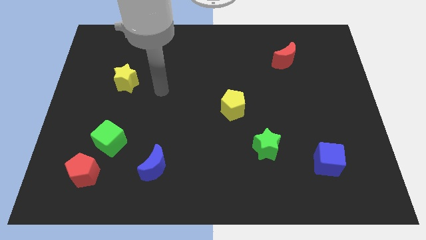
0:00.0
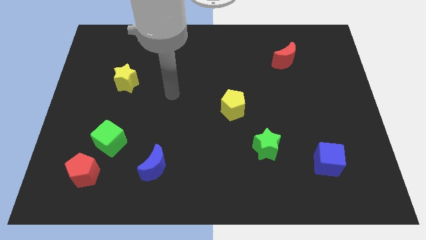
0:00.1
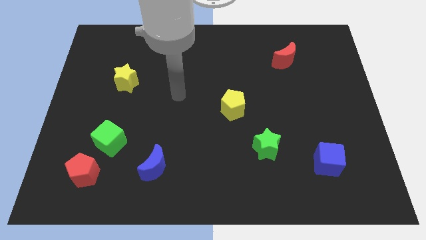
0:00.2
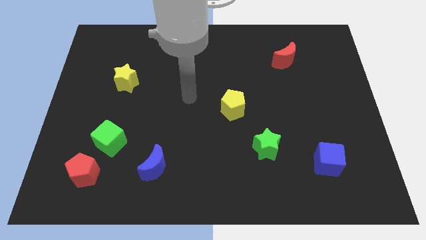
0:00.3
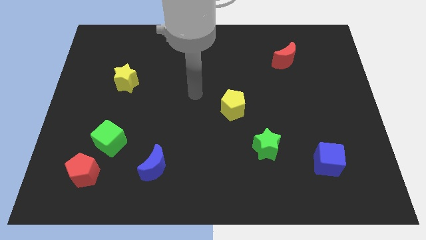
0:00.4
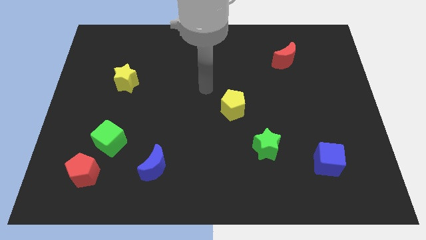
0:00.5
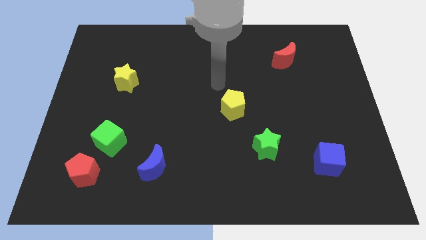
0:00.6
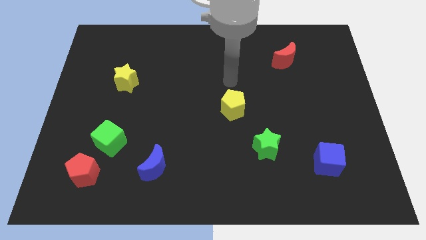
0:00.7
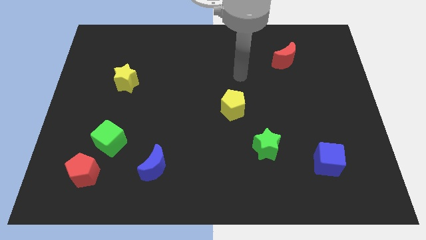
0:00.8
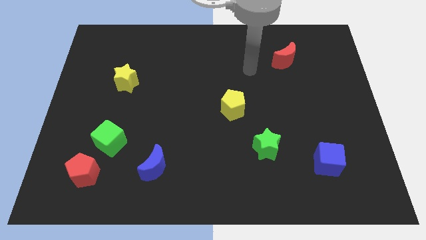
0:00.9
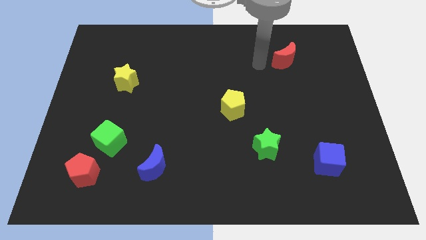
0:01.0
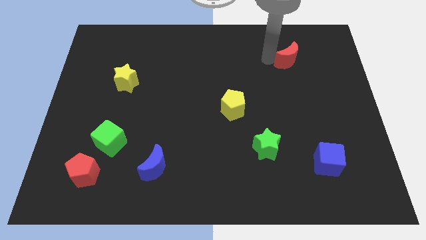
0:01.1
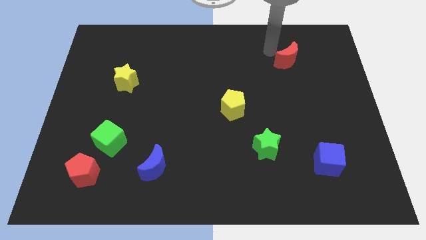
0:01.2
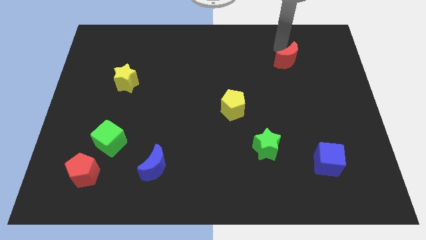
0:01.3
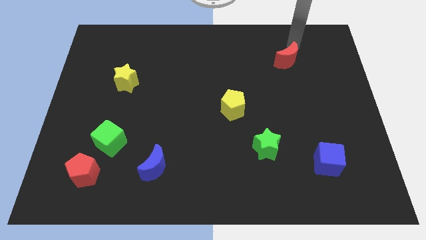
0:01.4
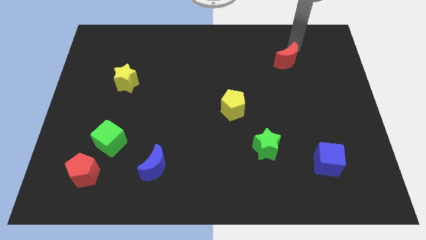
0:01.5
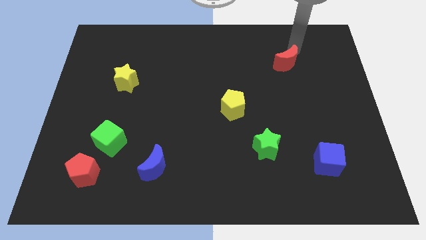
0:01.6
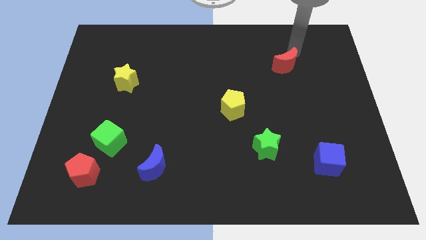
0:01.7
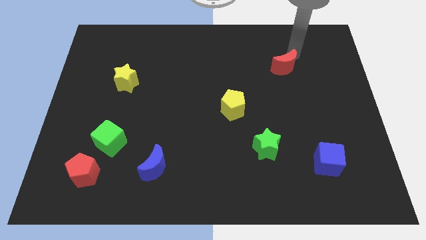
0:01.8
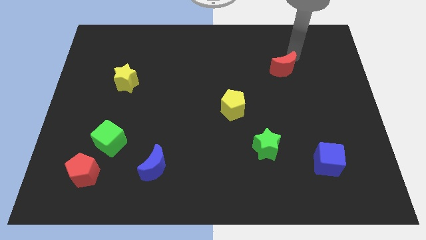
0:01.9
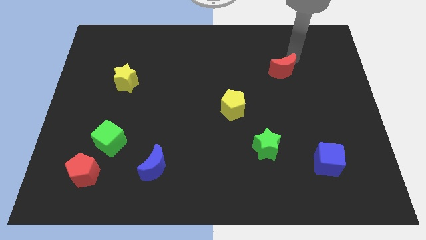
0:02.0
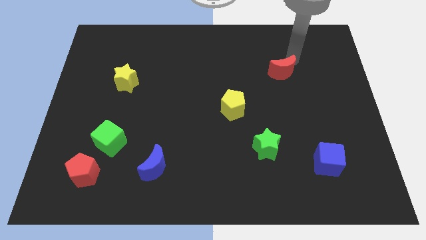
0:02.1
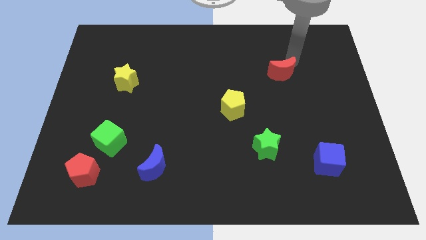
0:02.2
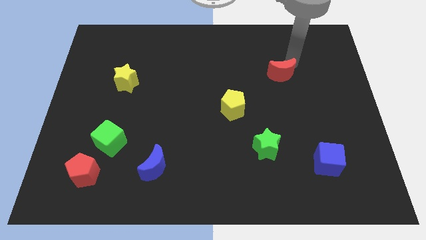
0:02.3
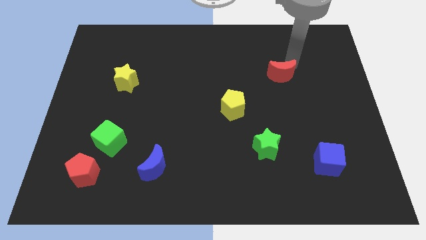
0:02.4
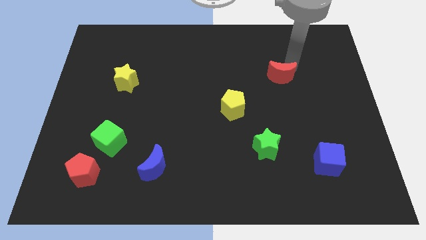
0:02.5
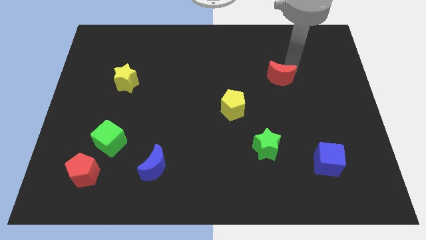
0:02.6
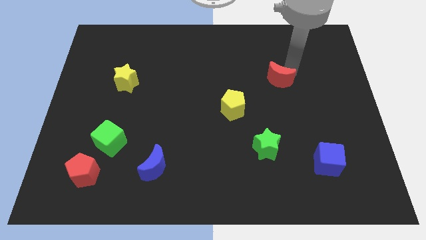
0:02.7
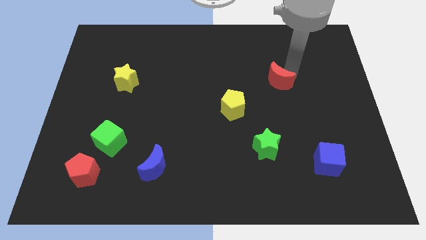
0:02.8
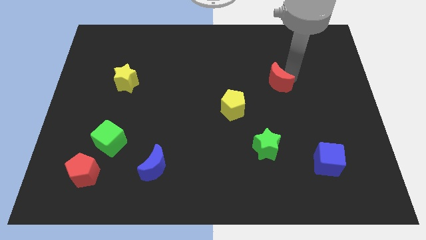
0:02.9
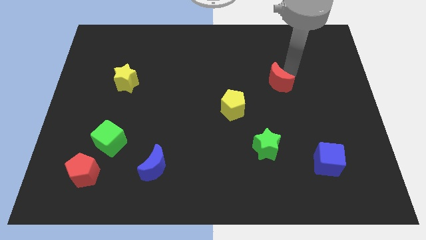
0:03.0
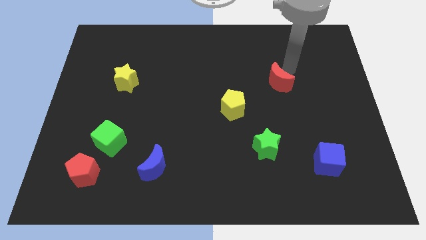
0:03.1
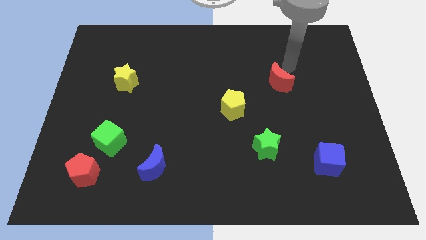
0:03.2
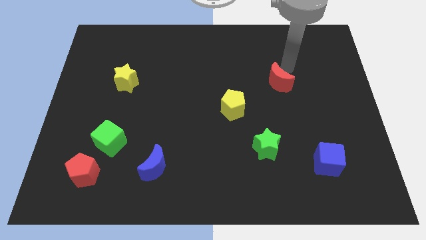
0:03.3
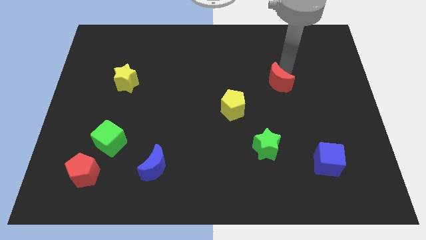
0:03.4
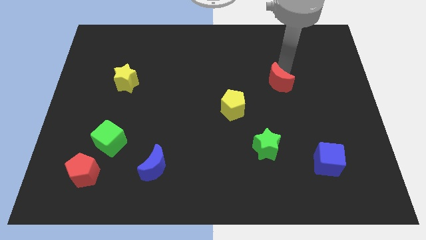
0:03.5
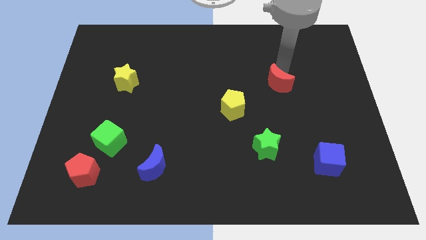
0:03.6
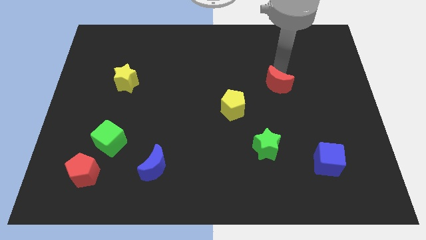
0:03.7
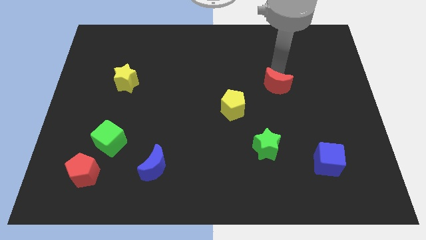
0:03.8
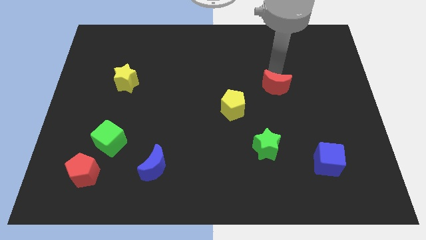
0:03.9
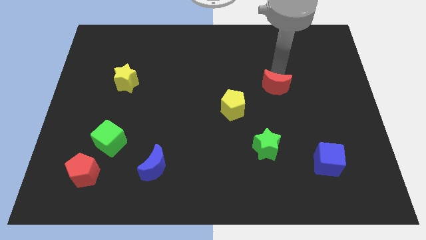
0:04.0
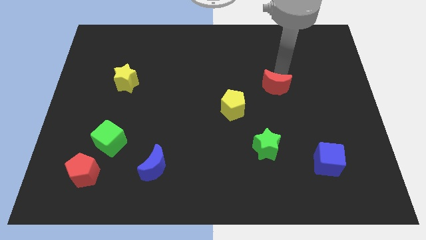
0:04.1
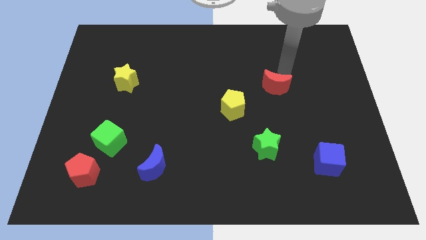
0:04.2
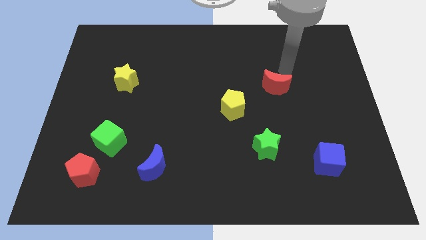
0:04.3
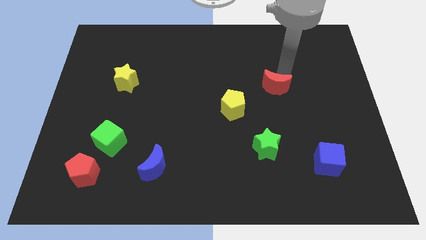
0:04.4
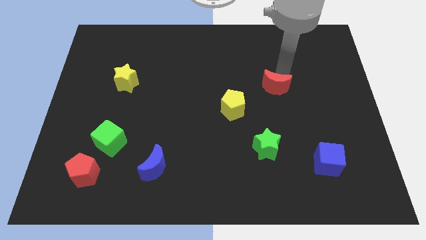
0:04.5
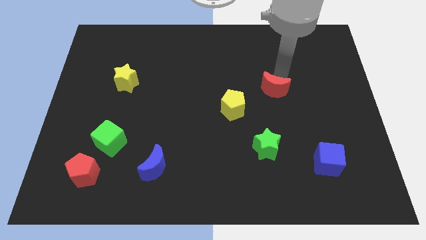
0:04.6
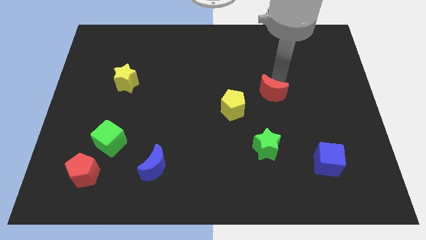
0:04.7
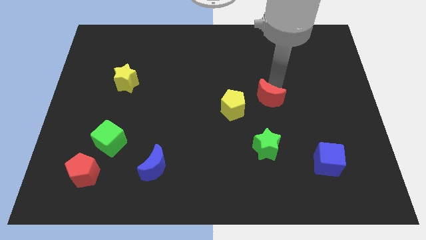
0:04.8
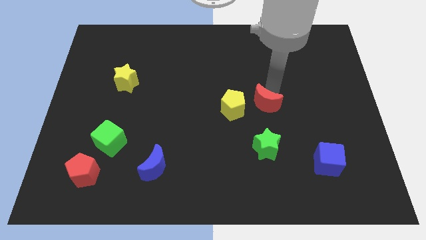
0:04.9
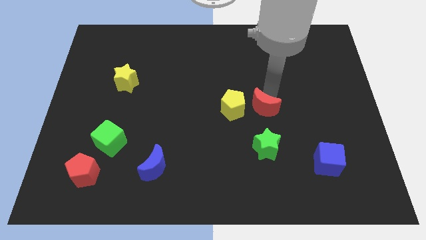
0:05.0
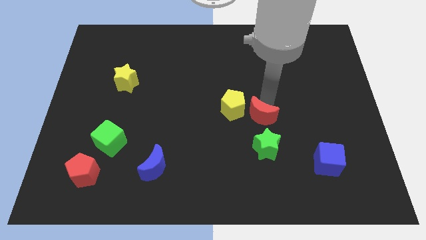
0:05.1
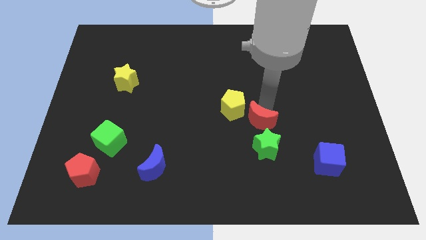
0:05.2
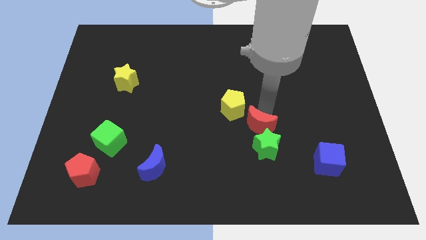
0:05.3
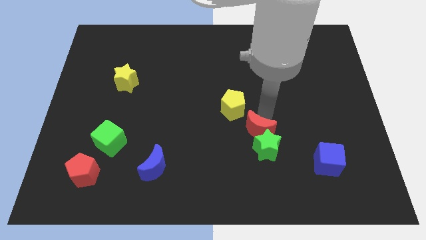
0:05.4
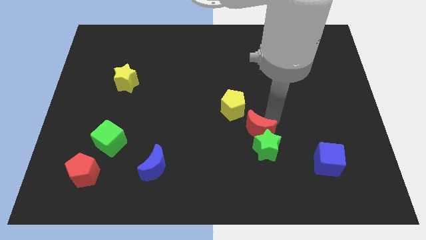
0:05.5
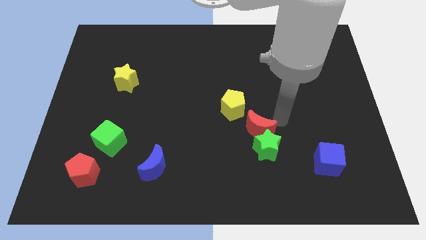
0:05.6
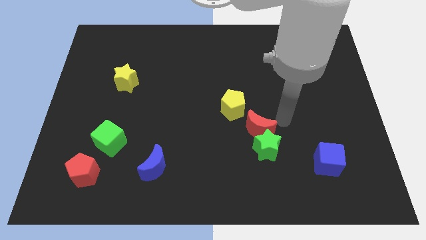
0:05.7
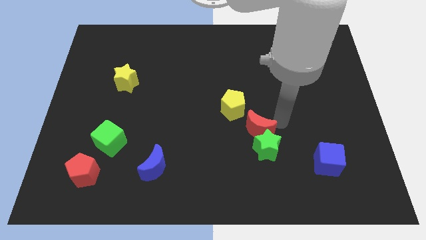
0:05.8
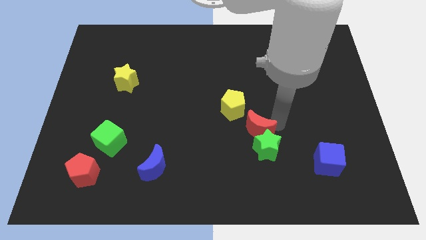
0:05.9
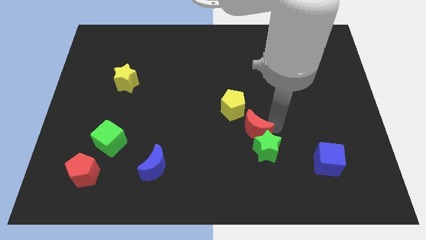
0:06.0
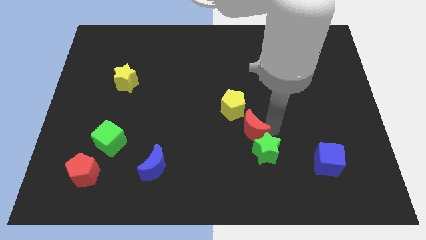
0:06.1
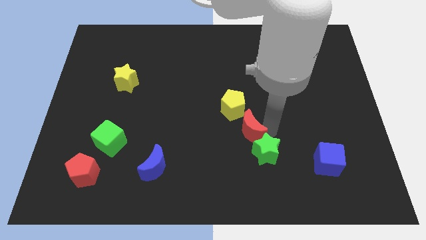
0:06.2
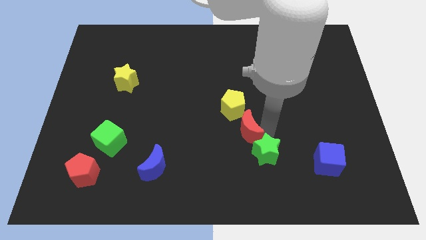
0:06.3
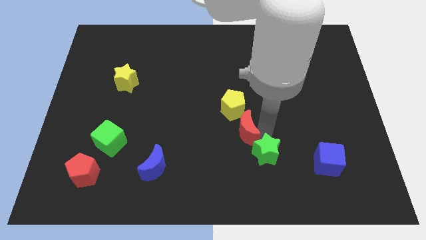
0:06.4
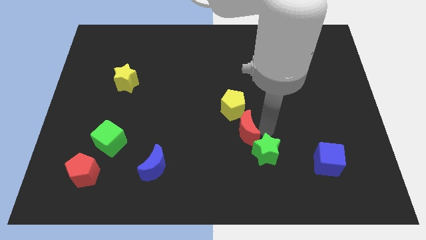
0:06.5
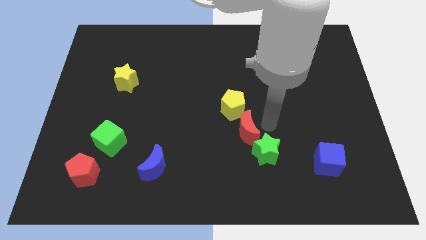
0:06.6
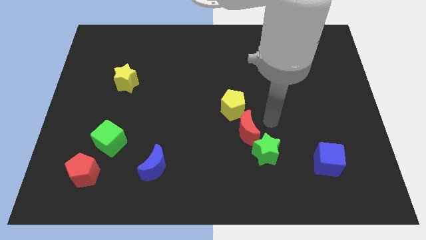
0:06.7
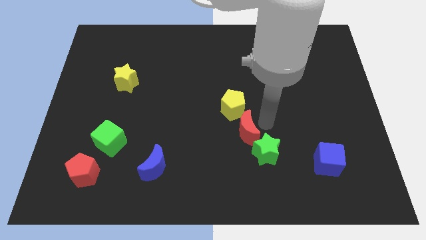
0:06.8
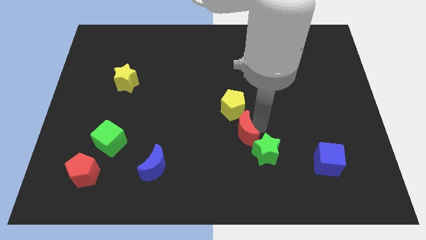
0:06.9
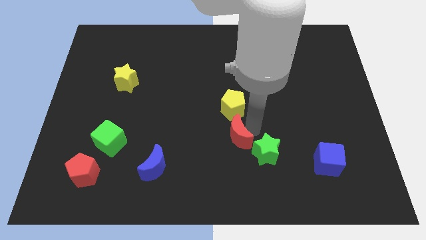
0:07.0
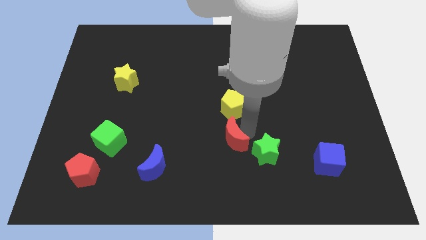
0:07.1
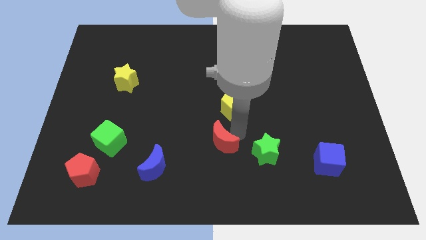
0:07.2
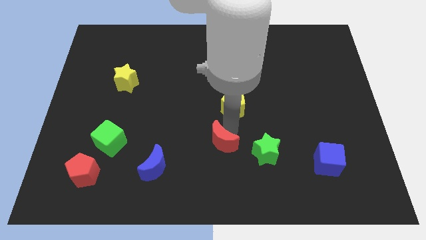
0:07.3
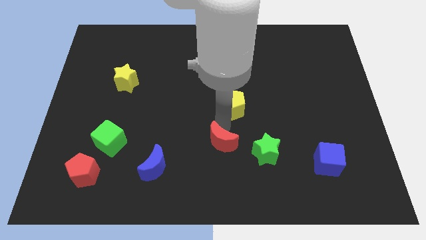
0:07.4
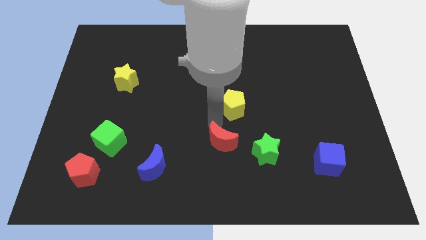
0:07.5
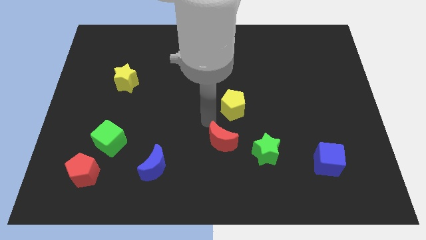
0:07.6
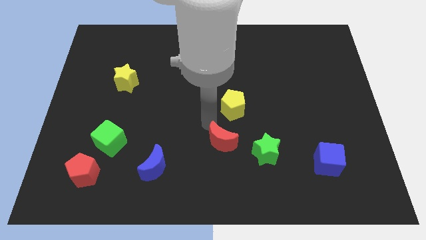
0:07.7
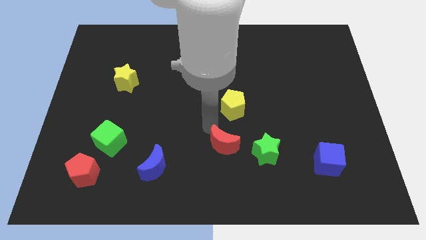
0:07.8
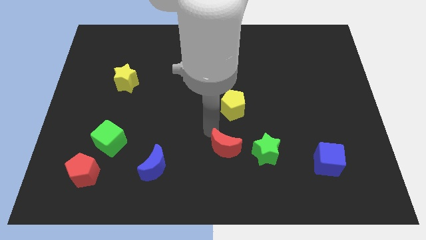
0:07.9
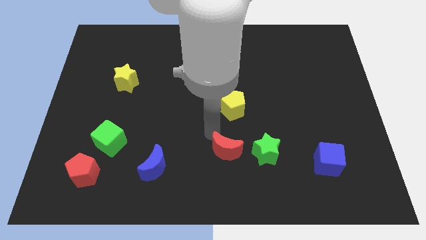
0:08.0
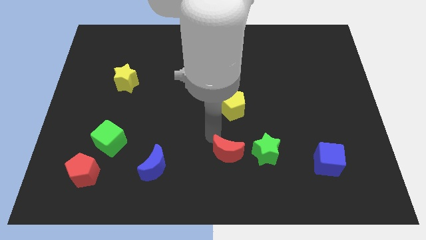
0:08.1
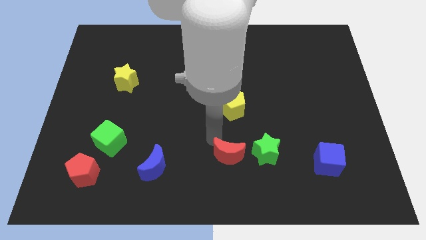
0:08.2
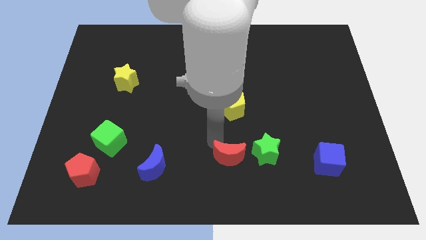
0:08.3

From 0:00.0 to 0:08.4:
push the red moon to the bottom left of the green star
